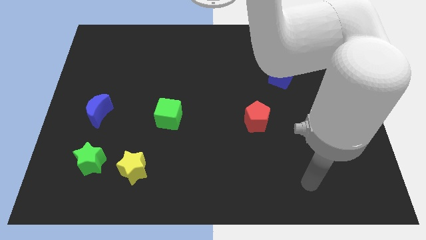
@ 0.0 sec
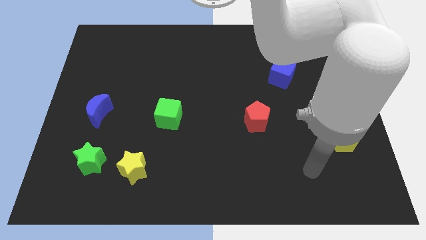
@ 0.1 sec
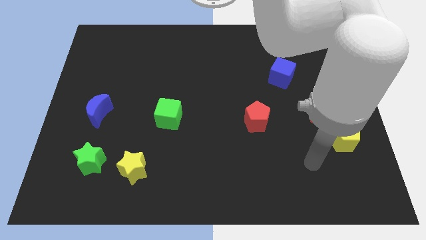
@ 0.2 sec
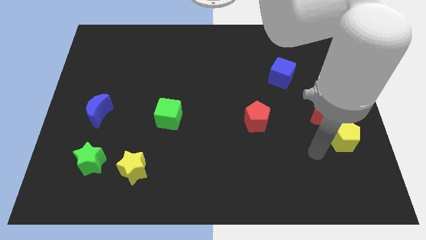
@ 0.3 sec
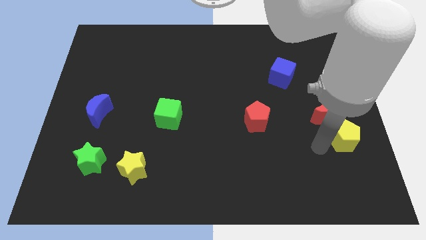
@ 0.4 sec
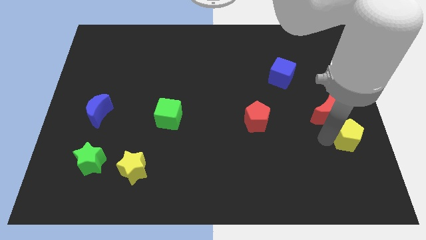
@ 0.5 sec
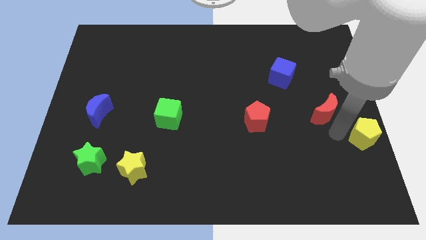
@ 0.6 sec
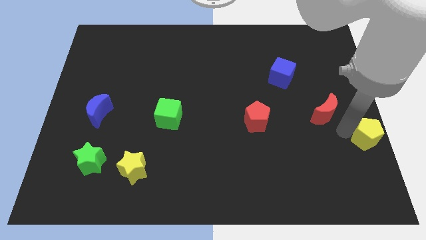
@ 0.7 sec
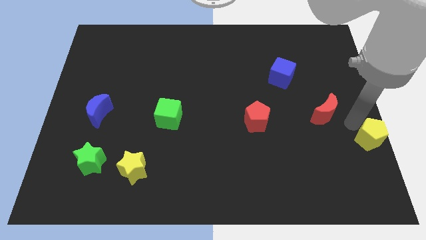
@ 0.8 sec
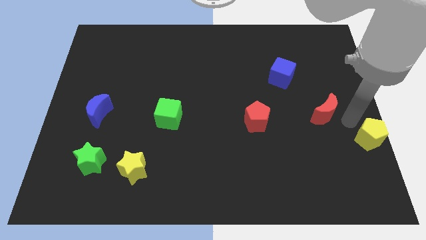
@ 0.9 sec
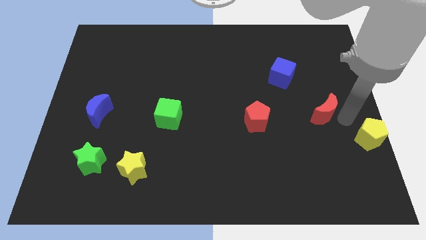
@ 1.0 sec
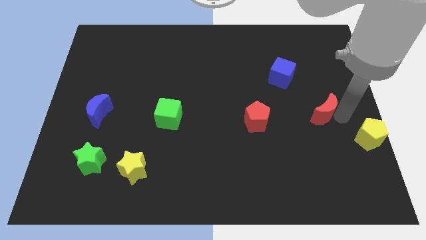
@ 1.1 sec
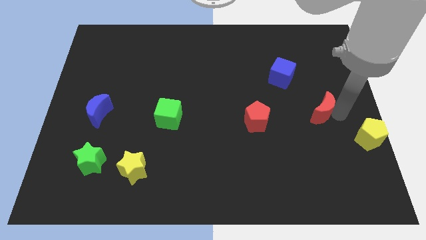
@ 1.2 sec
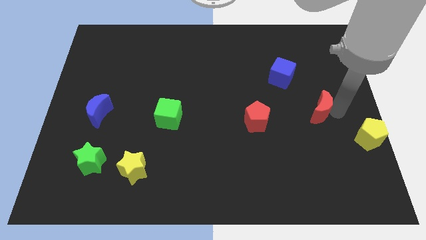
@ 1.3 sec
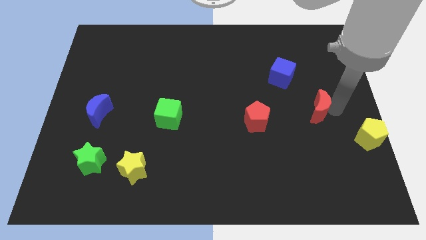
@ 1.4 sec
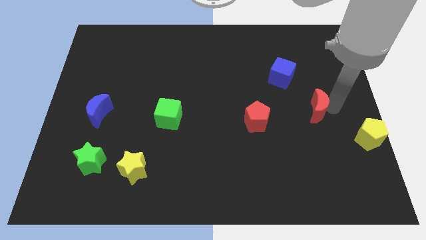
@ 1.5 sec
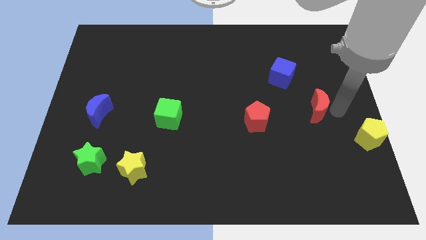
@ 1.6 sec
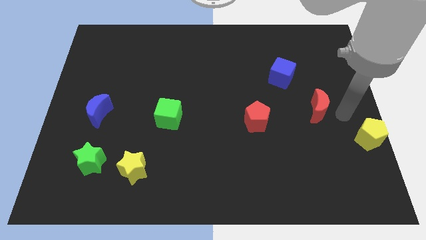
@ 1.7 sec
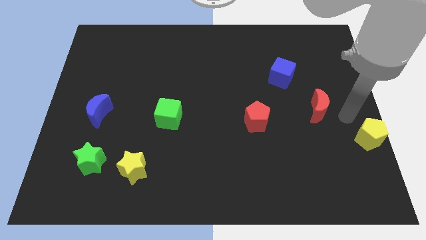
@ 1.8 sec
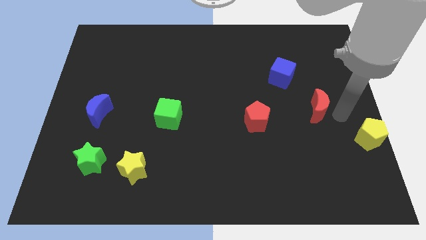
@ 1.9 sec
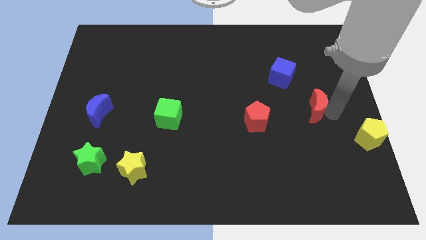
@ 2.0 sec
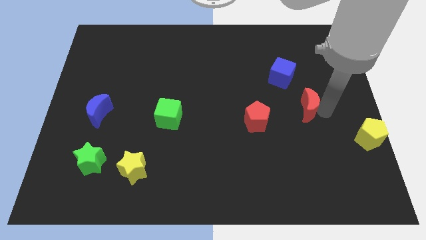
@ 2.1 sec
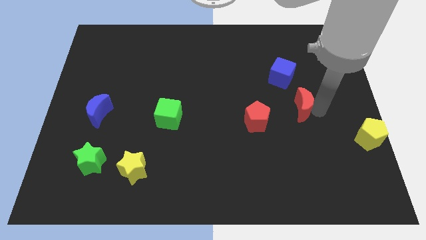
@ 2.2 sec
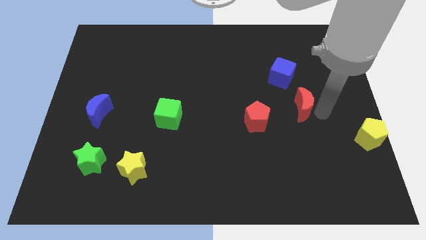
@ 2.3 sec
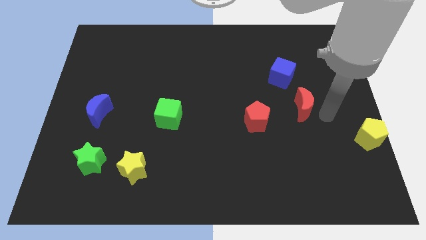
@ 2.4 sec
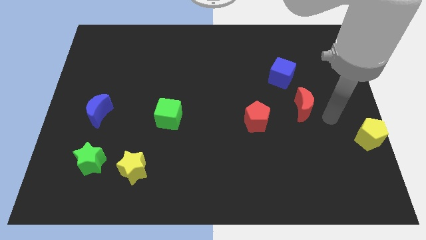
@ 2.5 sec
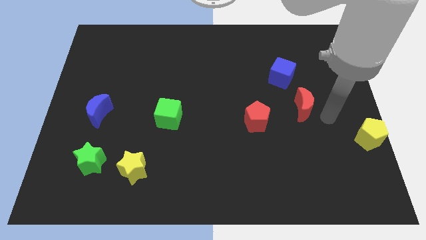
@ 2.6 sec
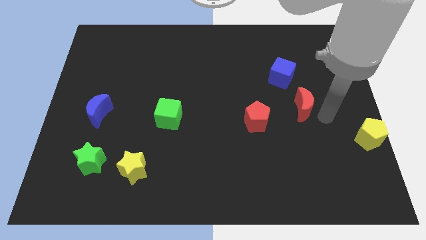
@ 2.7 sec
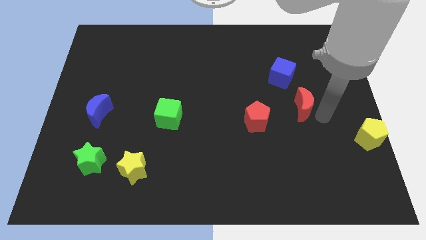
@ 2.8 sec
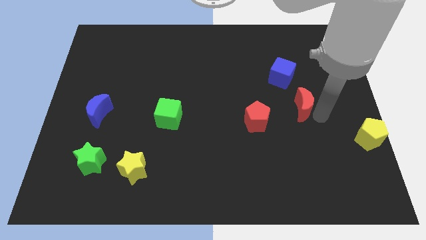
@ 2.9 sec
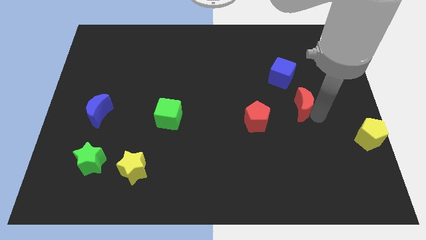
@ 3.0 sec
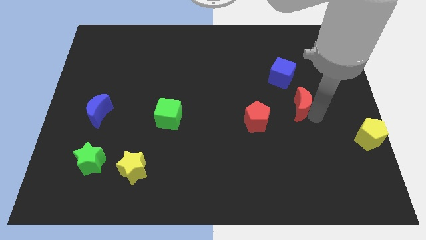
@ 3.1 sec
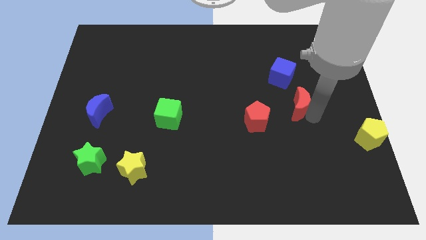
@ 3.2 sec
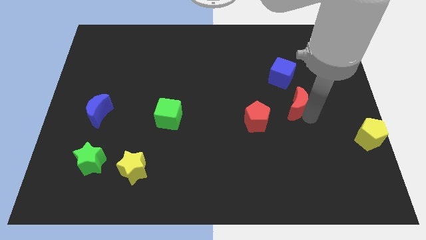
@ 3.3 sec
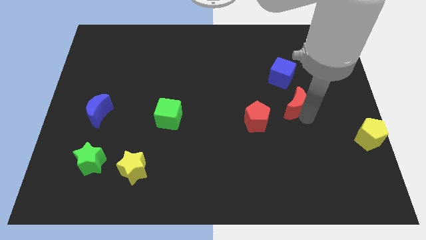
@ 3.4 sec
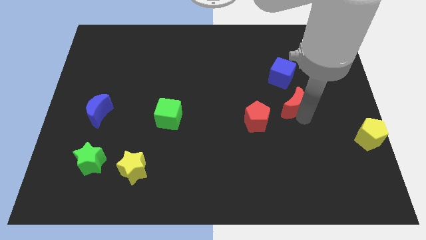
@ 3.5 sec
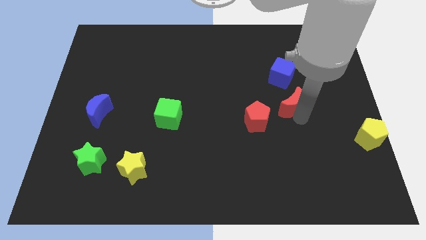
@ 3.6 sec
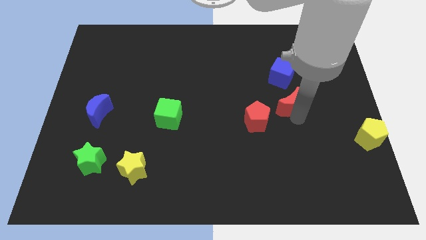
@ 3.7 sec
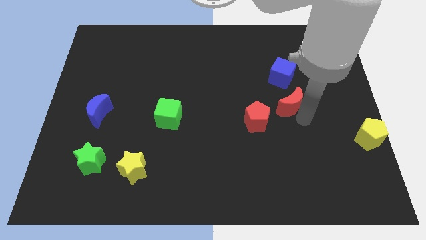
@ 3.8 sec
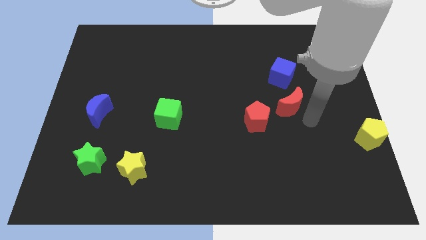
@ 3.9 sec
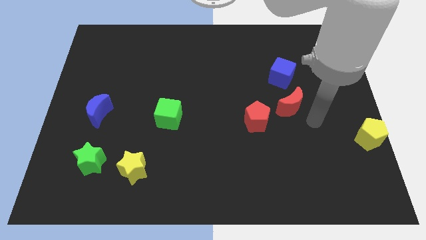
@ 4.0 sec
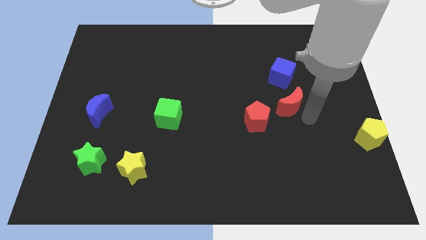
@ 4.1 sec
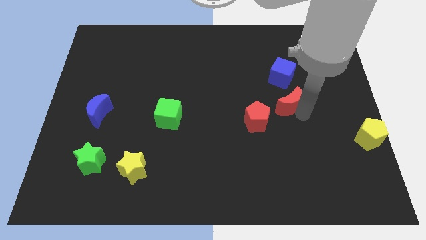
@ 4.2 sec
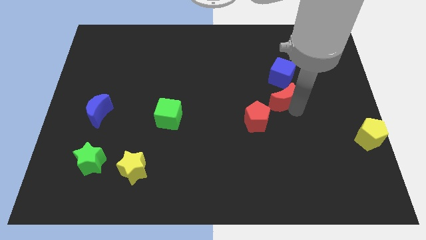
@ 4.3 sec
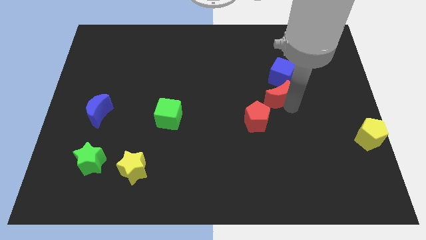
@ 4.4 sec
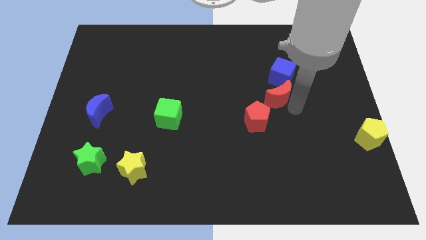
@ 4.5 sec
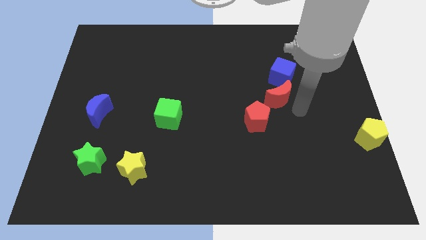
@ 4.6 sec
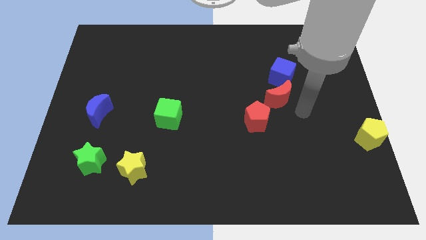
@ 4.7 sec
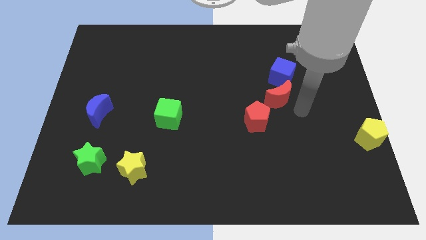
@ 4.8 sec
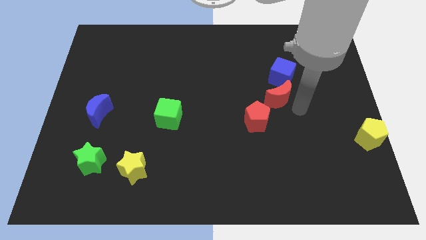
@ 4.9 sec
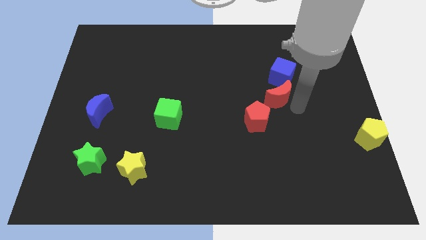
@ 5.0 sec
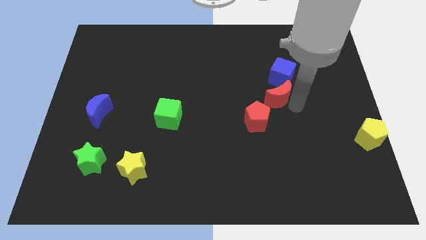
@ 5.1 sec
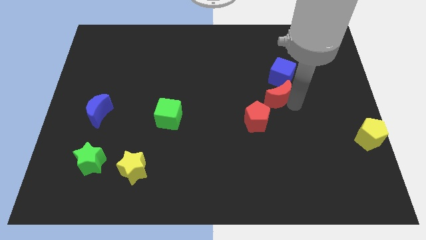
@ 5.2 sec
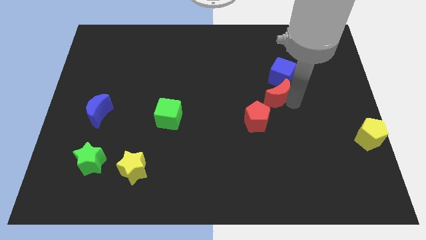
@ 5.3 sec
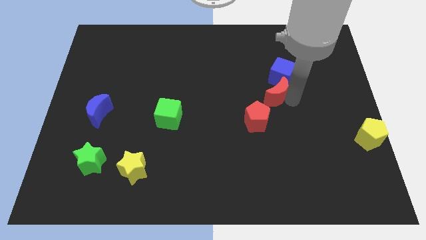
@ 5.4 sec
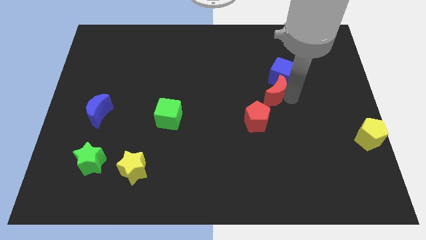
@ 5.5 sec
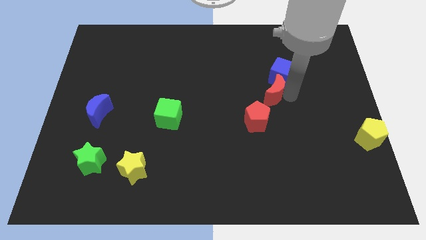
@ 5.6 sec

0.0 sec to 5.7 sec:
slide the red moon above the red pentagon

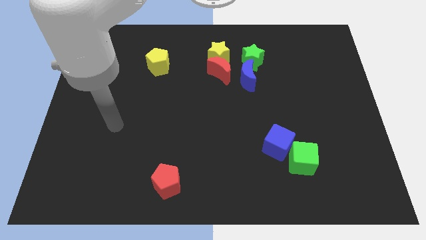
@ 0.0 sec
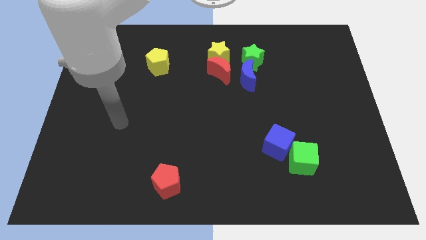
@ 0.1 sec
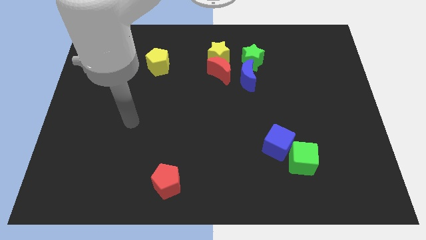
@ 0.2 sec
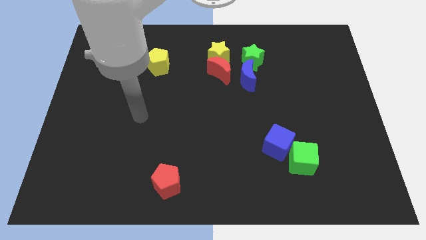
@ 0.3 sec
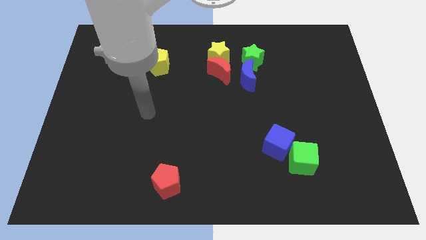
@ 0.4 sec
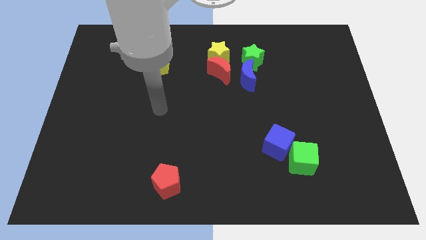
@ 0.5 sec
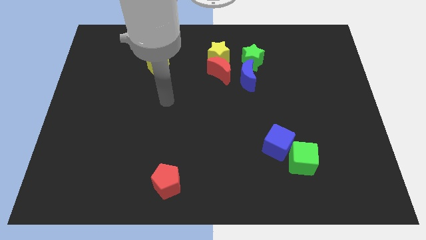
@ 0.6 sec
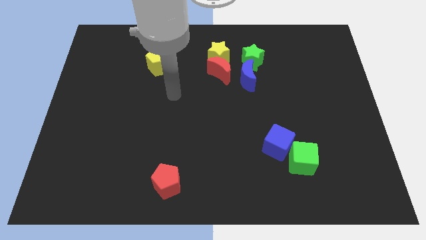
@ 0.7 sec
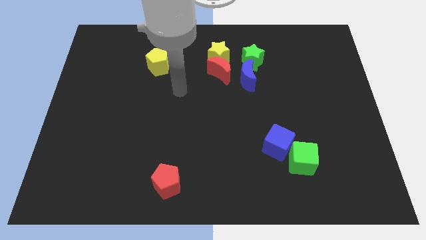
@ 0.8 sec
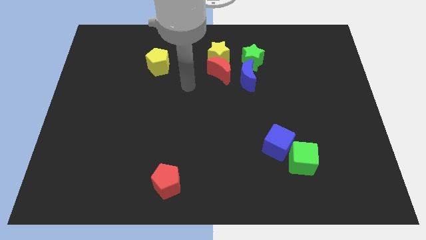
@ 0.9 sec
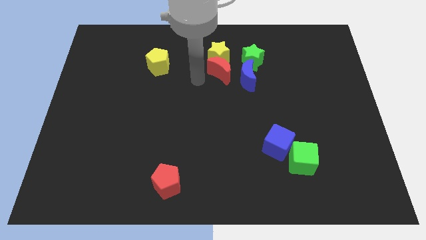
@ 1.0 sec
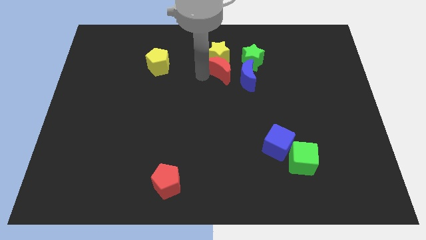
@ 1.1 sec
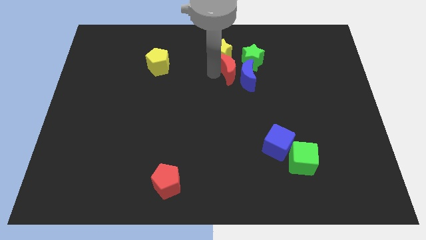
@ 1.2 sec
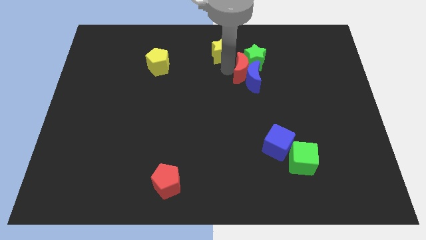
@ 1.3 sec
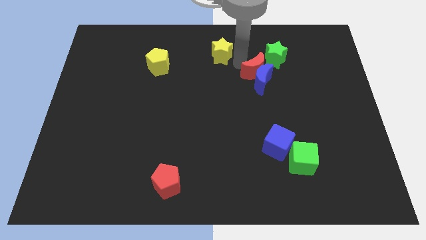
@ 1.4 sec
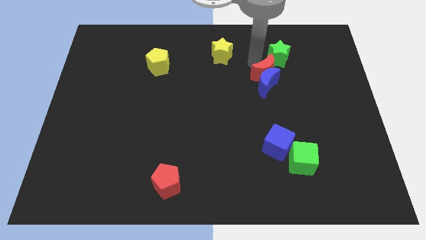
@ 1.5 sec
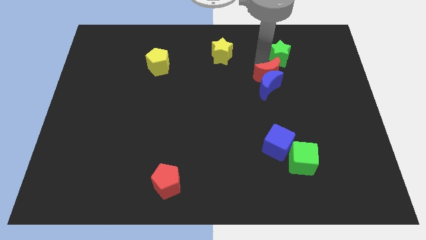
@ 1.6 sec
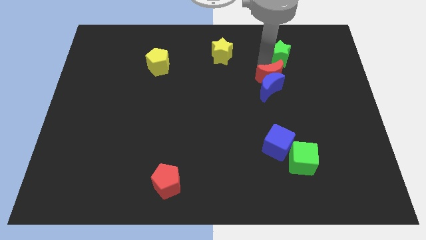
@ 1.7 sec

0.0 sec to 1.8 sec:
move the blue moon to the top side of the blue cube
